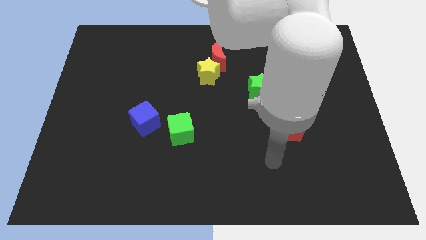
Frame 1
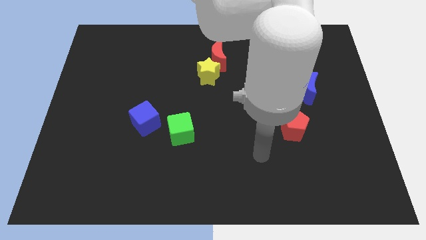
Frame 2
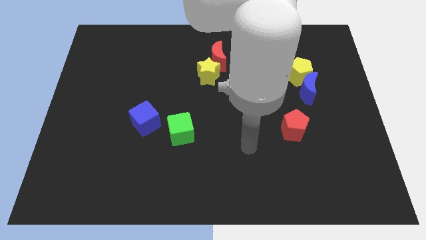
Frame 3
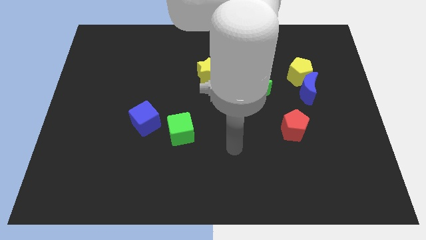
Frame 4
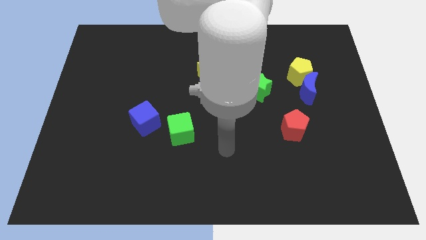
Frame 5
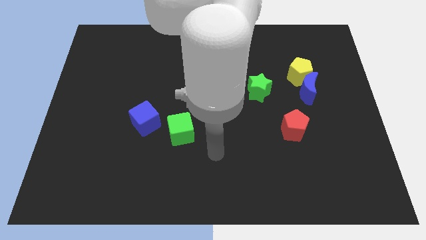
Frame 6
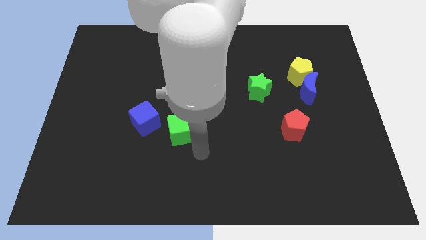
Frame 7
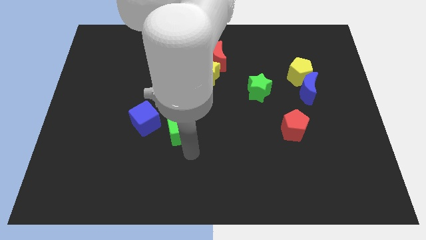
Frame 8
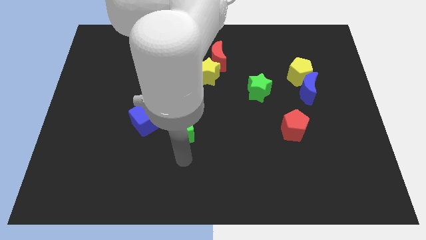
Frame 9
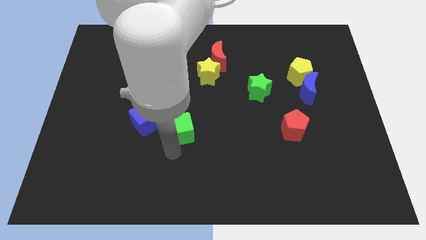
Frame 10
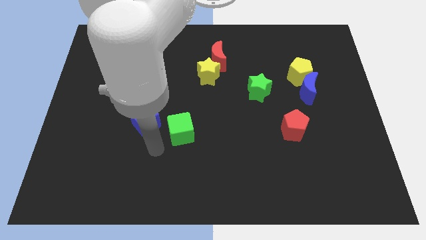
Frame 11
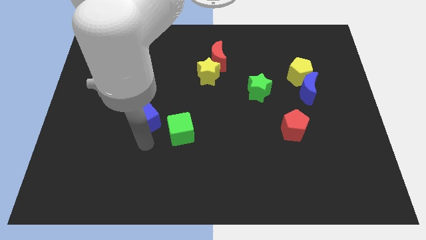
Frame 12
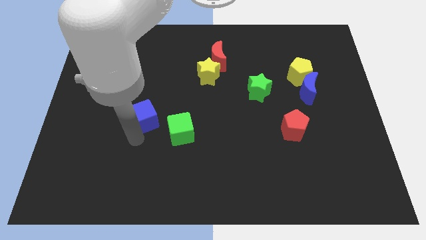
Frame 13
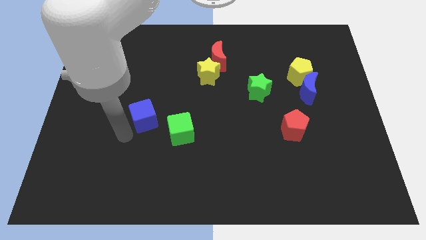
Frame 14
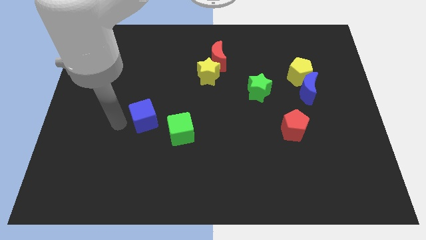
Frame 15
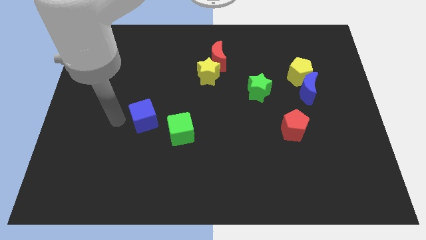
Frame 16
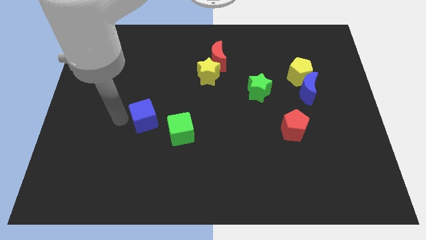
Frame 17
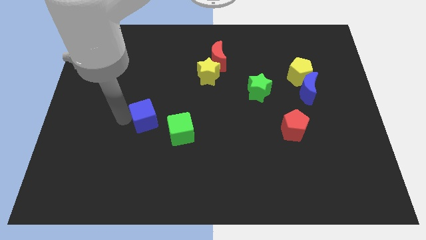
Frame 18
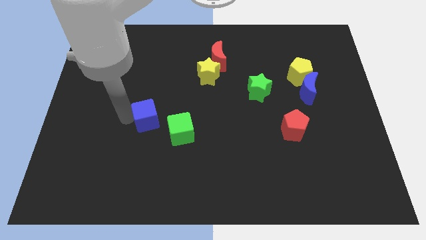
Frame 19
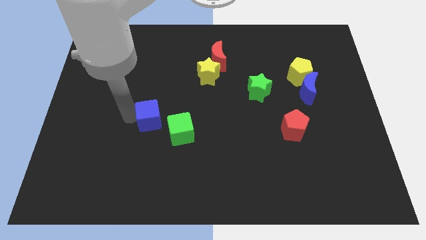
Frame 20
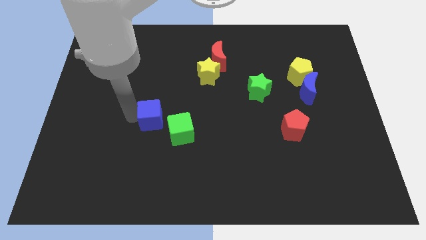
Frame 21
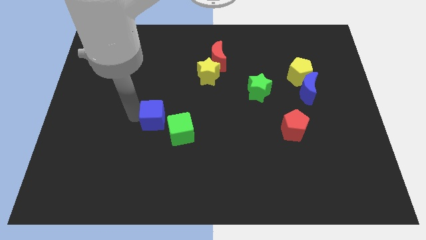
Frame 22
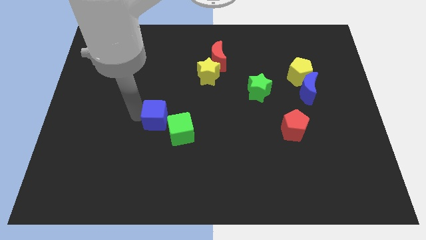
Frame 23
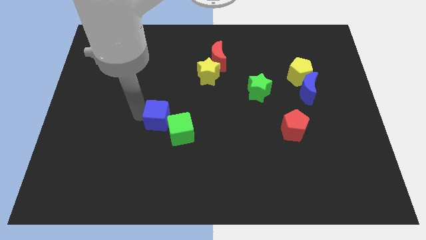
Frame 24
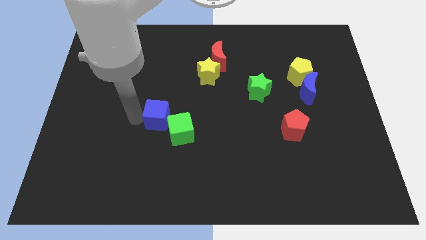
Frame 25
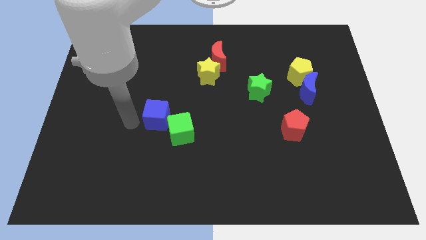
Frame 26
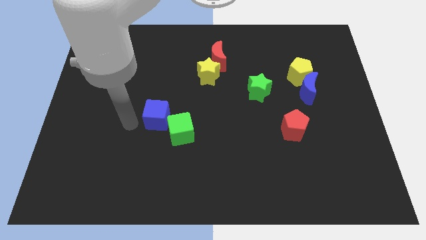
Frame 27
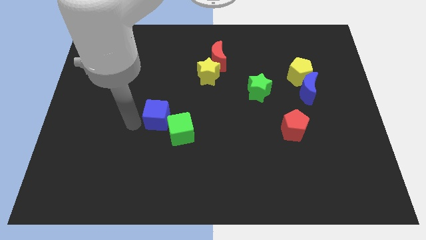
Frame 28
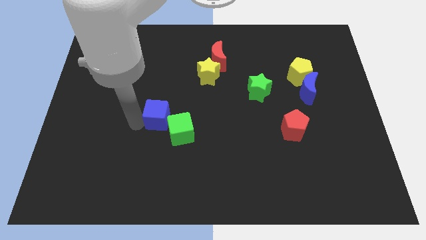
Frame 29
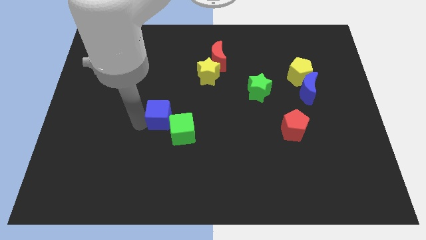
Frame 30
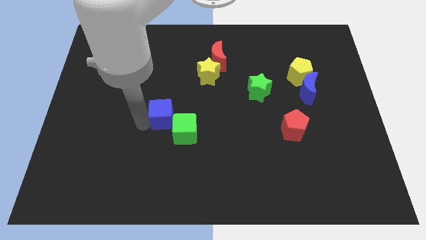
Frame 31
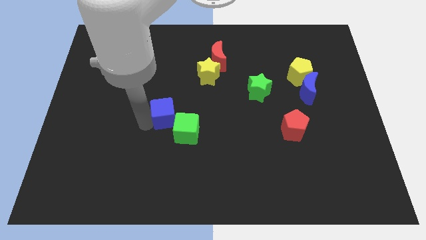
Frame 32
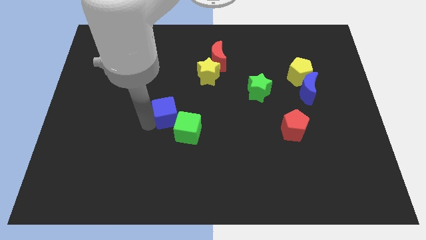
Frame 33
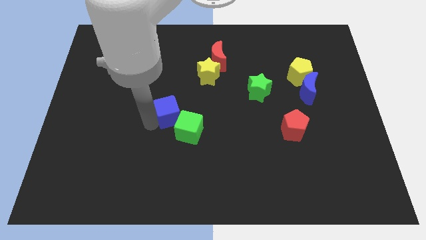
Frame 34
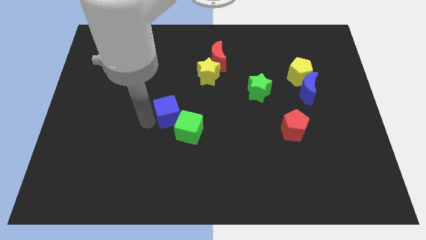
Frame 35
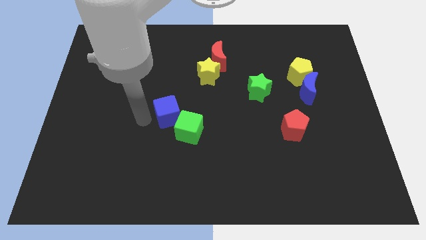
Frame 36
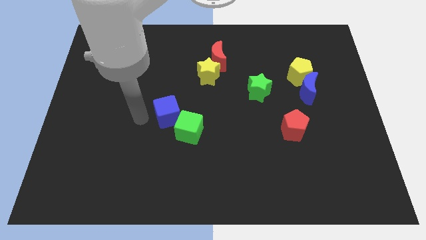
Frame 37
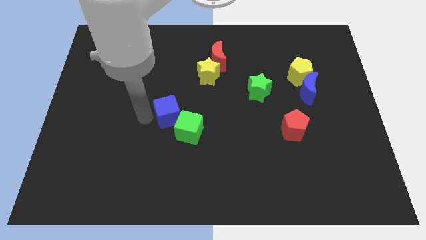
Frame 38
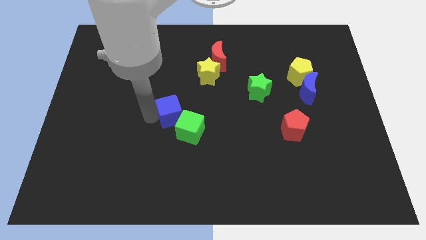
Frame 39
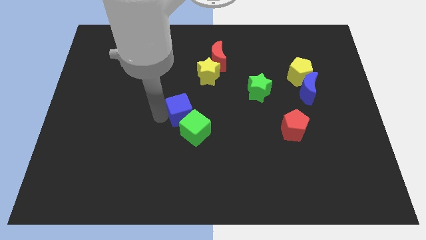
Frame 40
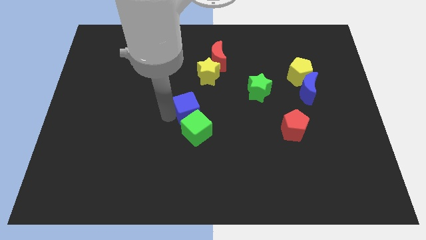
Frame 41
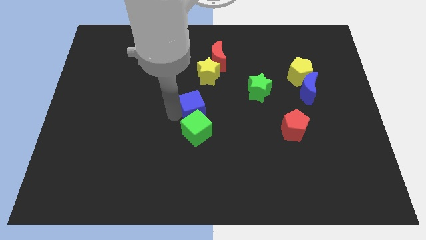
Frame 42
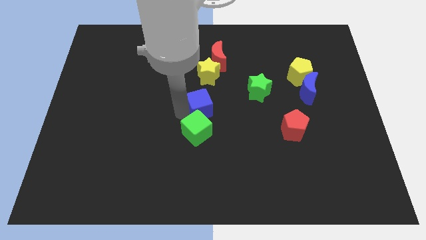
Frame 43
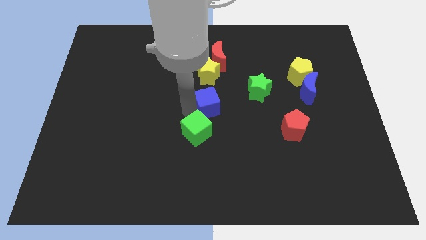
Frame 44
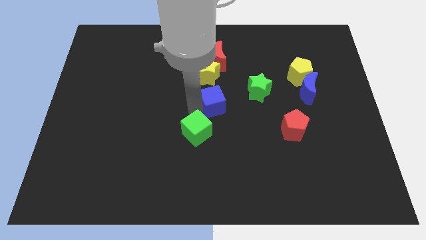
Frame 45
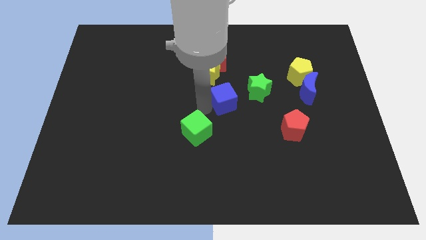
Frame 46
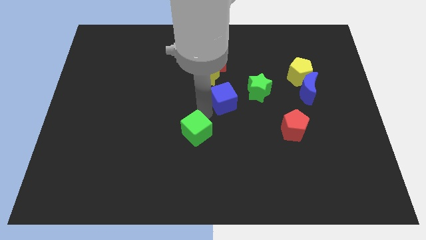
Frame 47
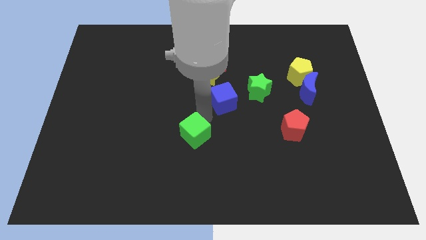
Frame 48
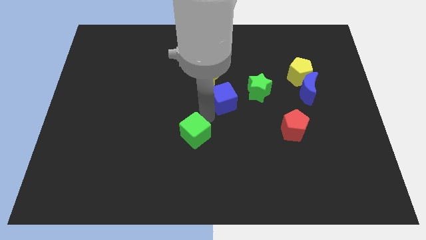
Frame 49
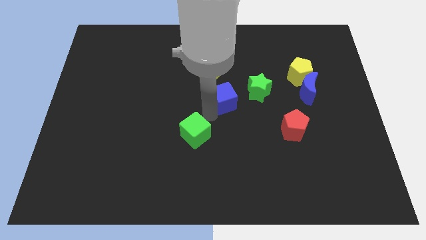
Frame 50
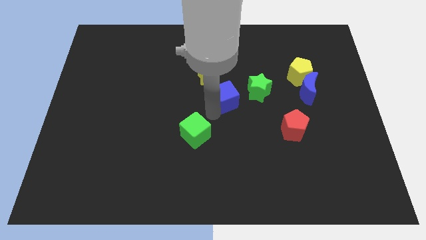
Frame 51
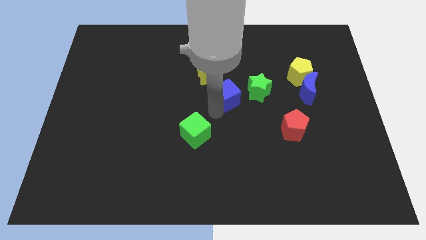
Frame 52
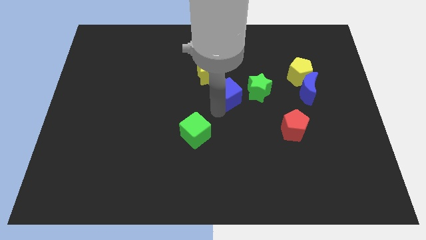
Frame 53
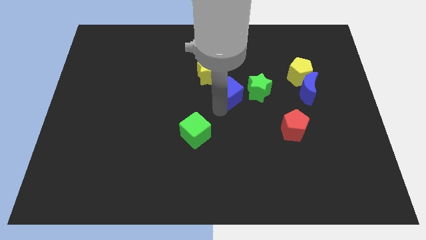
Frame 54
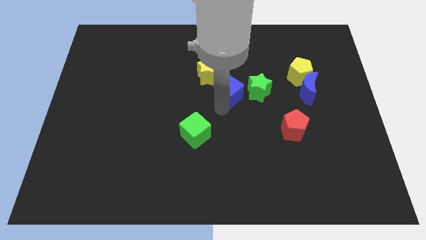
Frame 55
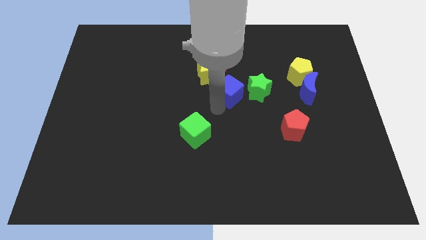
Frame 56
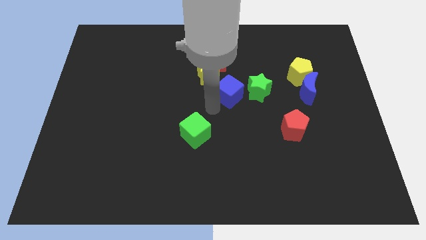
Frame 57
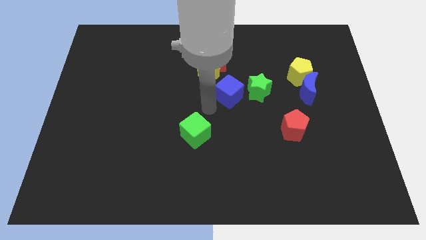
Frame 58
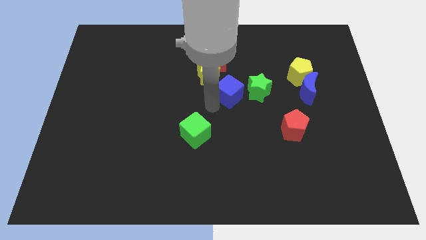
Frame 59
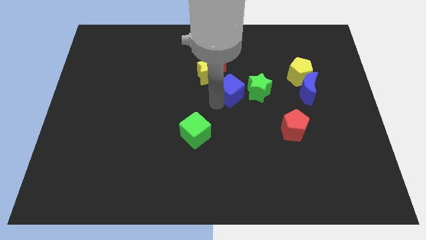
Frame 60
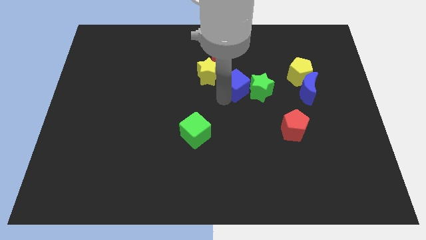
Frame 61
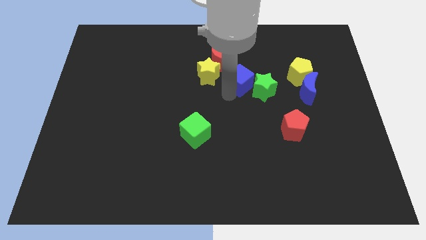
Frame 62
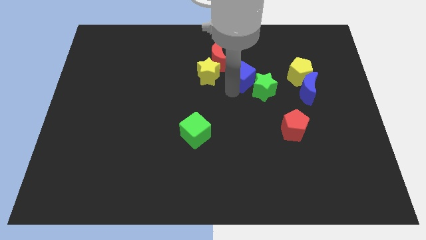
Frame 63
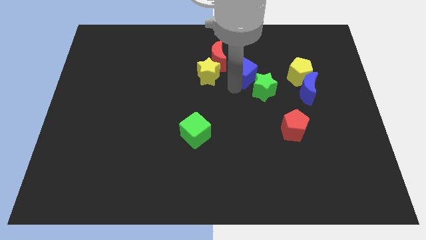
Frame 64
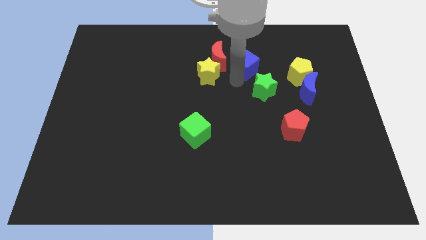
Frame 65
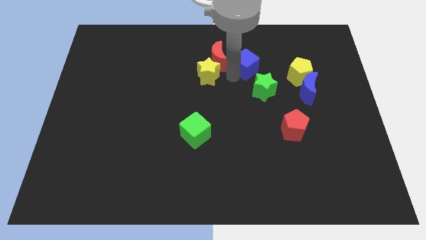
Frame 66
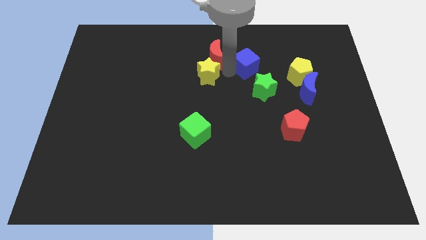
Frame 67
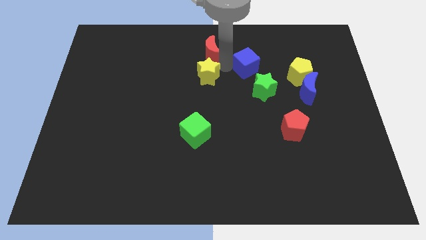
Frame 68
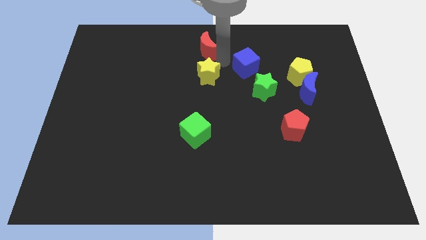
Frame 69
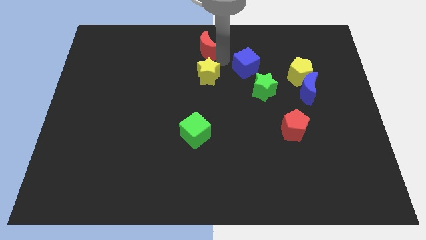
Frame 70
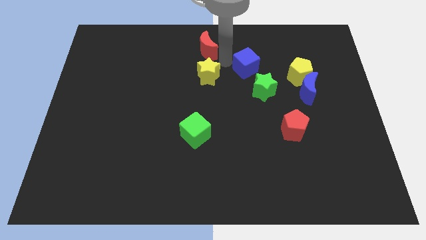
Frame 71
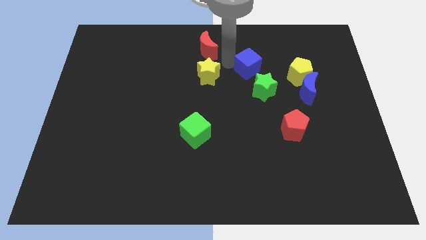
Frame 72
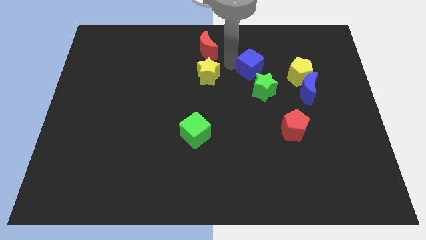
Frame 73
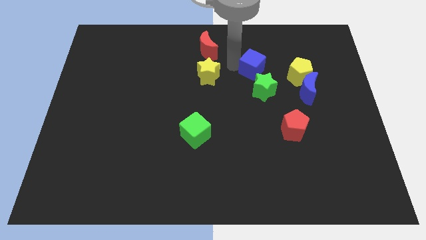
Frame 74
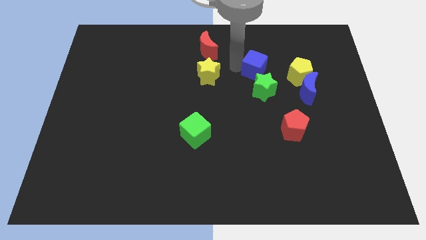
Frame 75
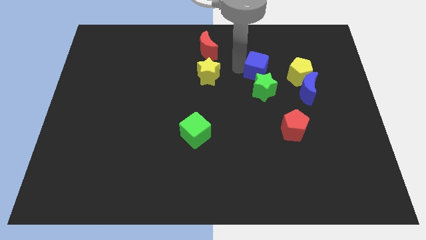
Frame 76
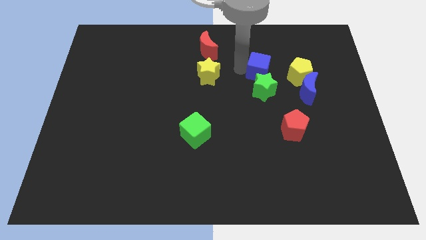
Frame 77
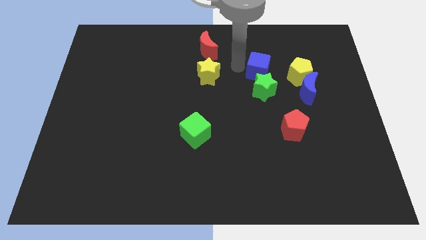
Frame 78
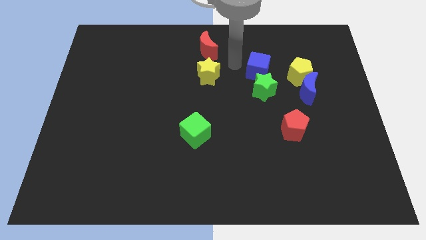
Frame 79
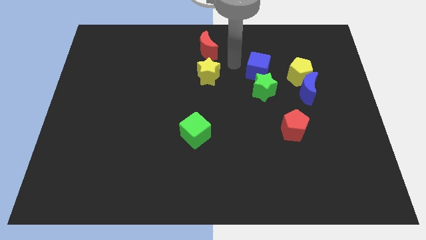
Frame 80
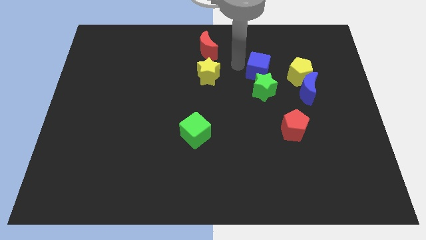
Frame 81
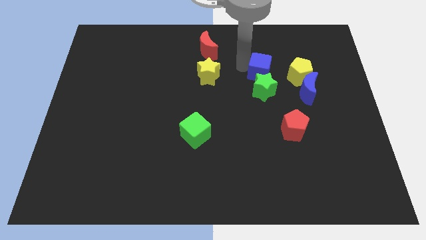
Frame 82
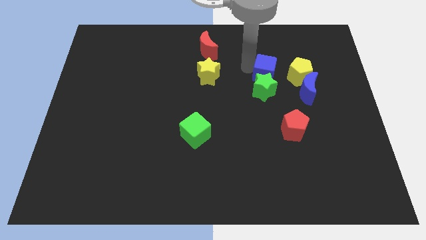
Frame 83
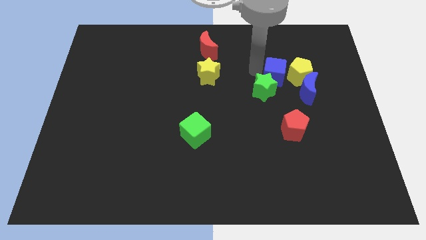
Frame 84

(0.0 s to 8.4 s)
put the blue cube close to the yellow pentagon
